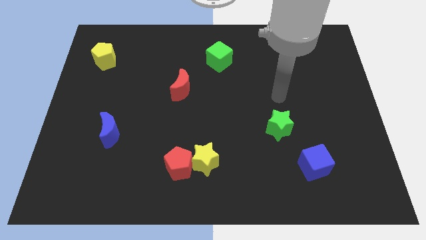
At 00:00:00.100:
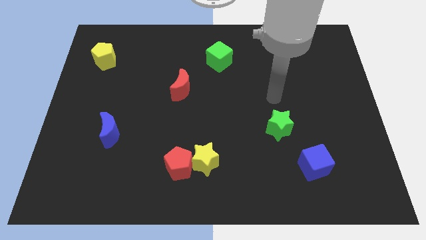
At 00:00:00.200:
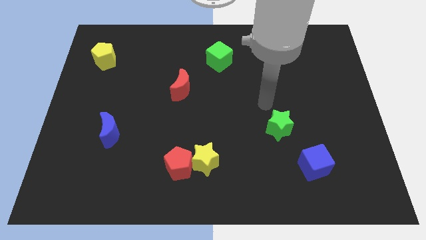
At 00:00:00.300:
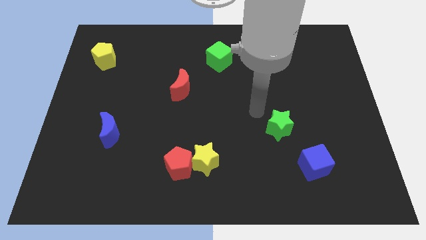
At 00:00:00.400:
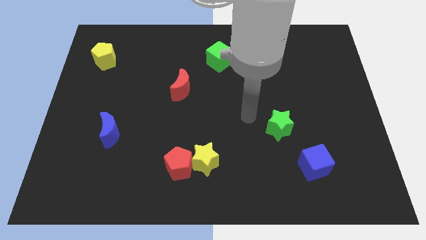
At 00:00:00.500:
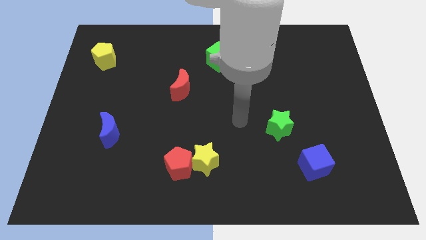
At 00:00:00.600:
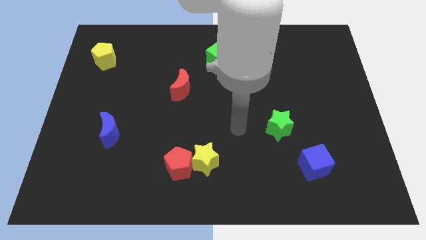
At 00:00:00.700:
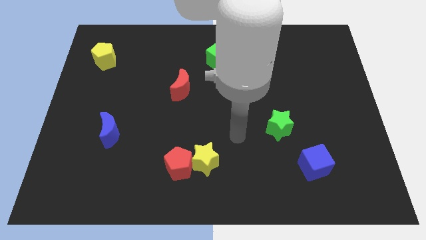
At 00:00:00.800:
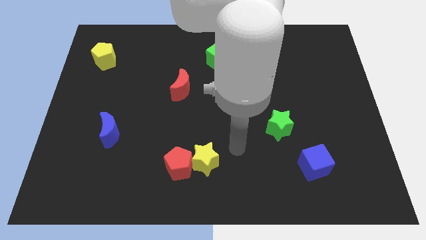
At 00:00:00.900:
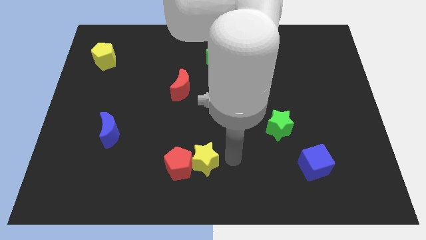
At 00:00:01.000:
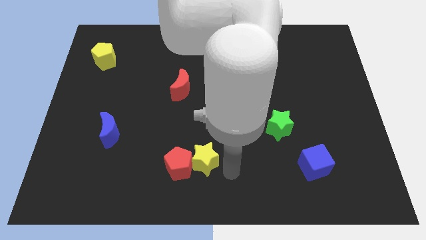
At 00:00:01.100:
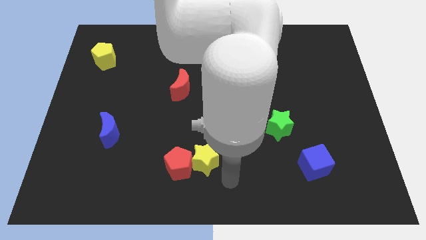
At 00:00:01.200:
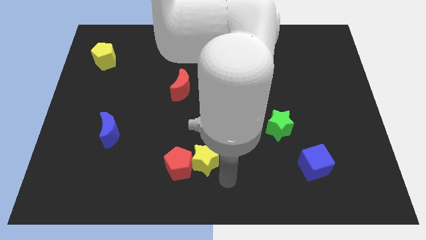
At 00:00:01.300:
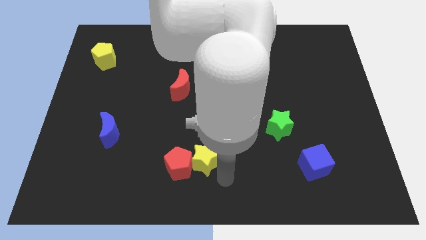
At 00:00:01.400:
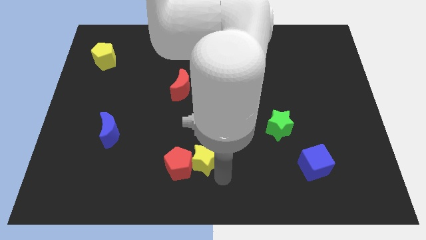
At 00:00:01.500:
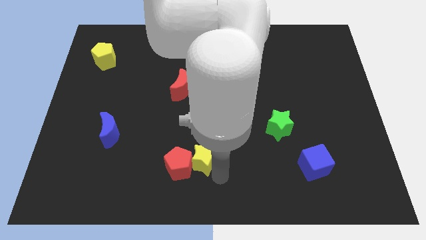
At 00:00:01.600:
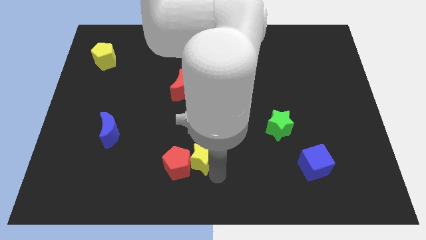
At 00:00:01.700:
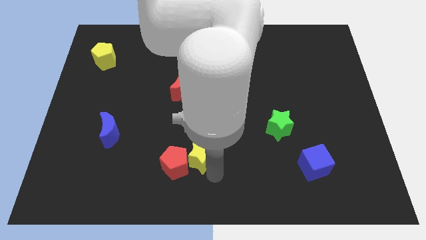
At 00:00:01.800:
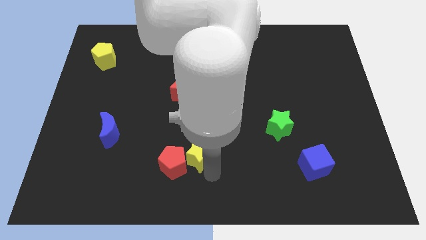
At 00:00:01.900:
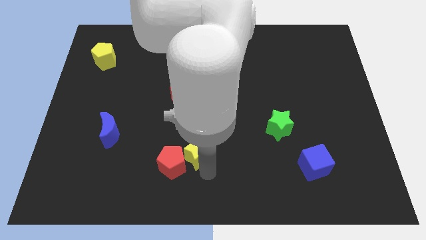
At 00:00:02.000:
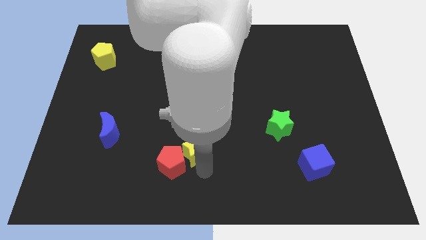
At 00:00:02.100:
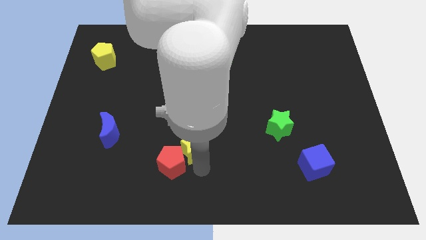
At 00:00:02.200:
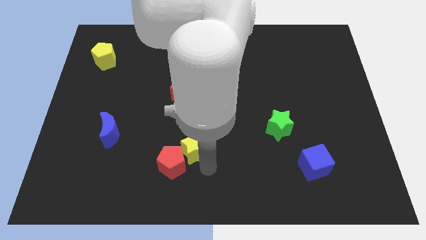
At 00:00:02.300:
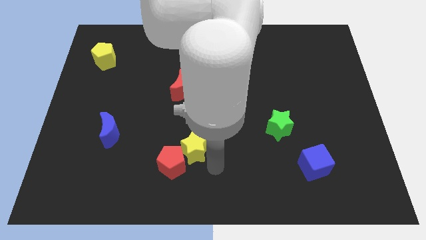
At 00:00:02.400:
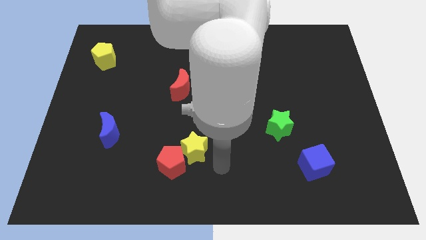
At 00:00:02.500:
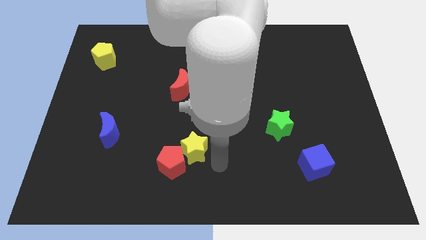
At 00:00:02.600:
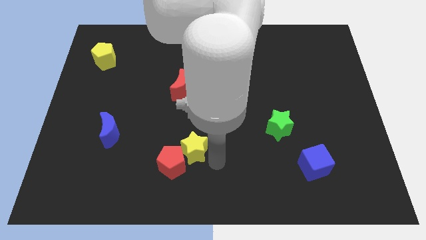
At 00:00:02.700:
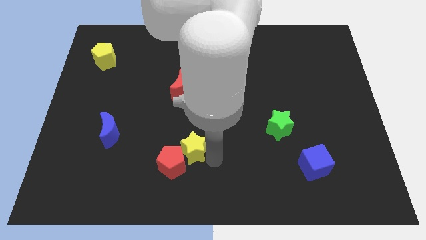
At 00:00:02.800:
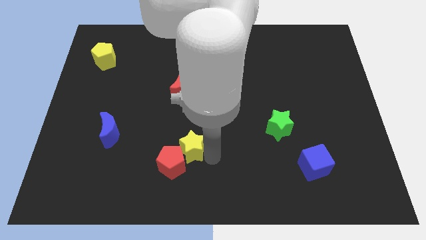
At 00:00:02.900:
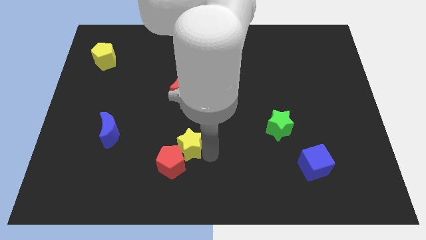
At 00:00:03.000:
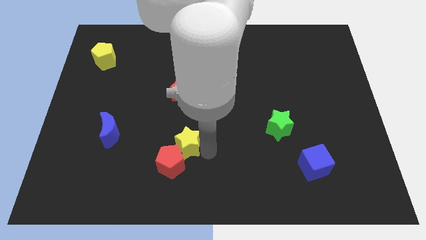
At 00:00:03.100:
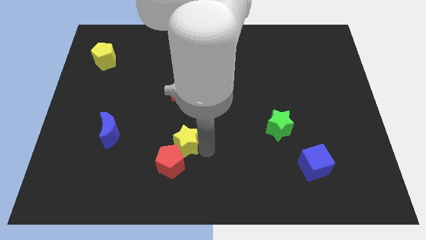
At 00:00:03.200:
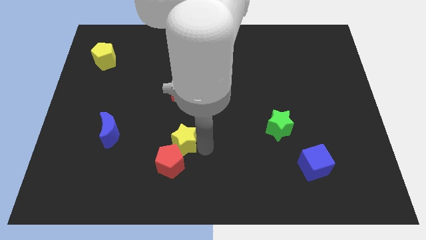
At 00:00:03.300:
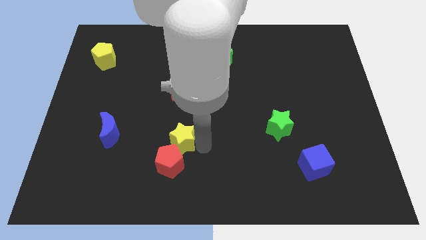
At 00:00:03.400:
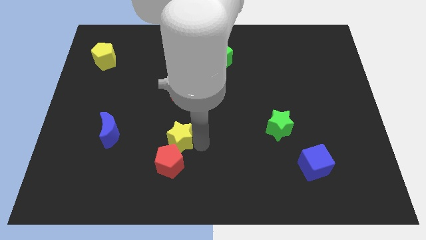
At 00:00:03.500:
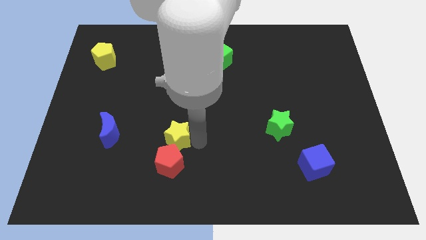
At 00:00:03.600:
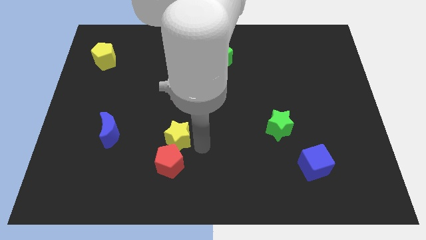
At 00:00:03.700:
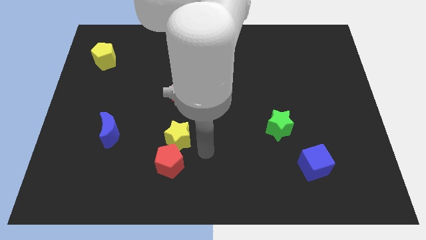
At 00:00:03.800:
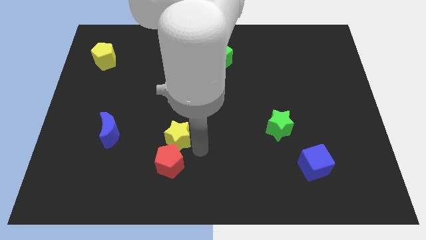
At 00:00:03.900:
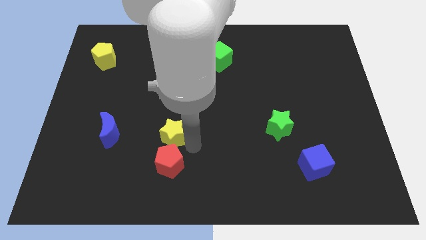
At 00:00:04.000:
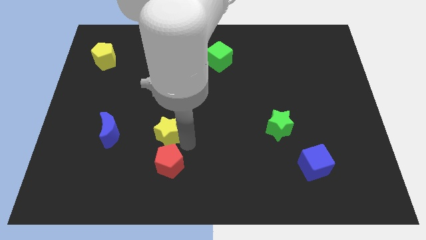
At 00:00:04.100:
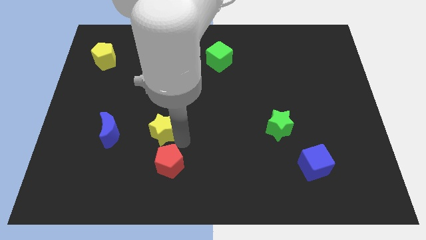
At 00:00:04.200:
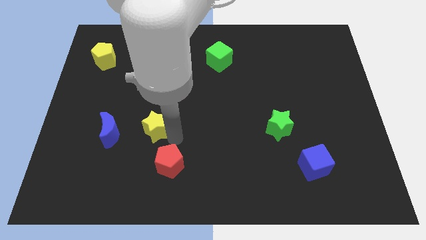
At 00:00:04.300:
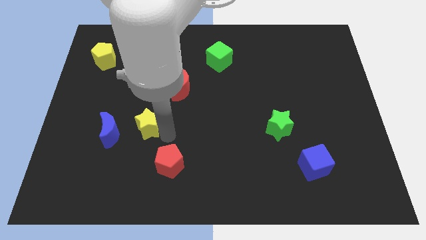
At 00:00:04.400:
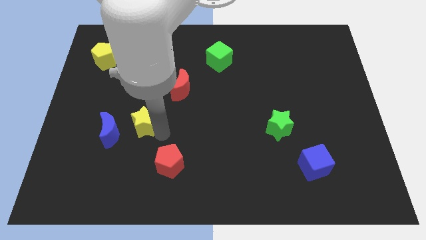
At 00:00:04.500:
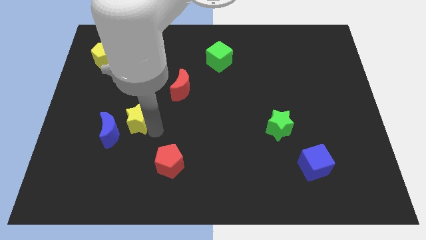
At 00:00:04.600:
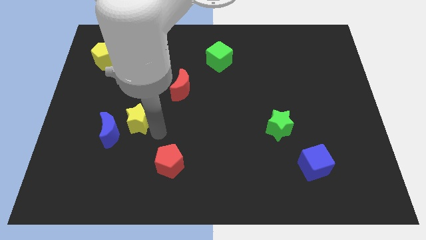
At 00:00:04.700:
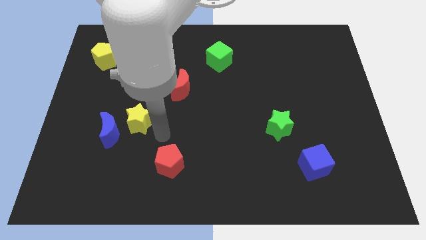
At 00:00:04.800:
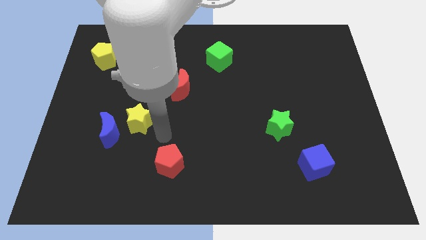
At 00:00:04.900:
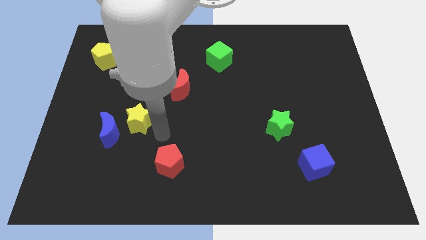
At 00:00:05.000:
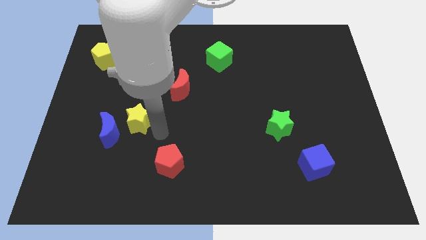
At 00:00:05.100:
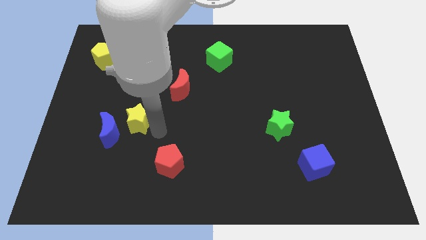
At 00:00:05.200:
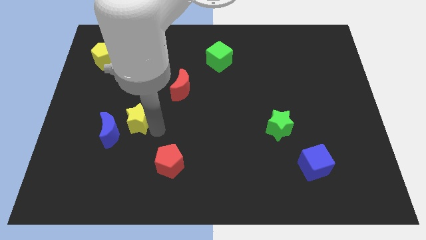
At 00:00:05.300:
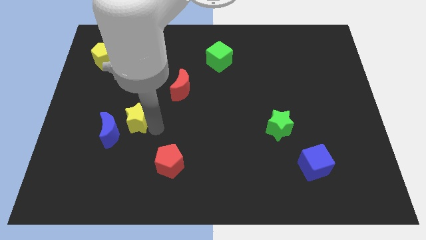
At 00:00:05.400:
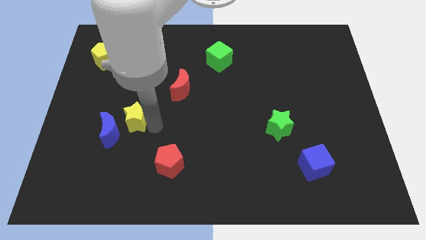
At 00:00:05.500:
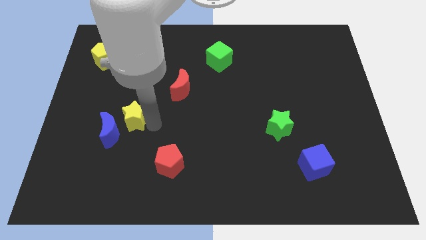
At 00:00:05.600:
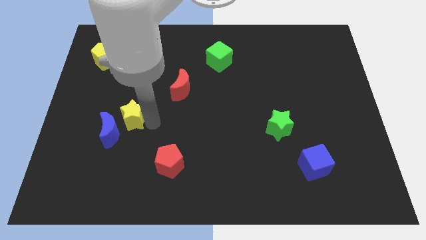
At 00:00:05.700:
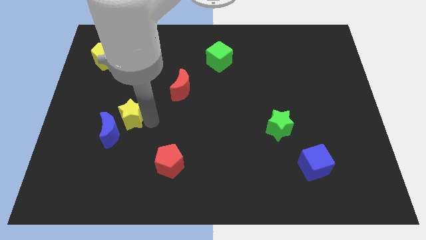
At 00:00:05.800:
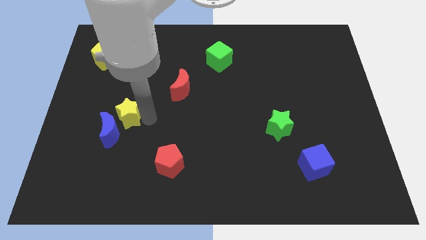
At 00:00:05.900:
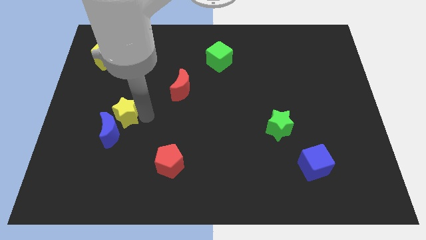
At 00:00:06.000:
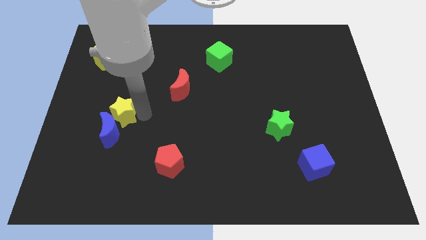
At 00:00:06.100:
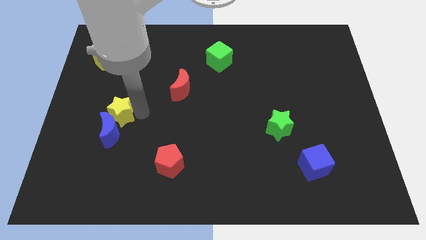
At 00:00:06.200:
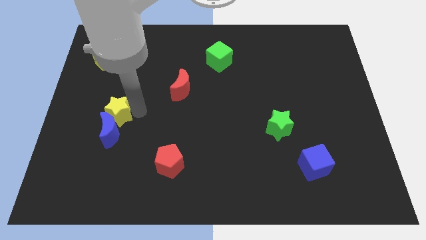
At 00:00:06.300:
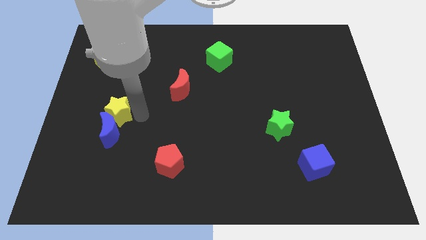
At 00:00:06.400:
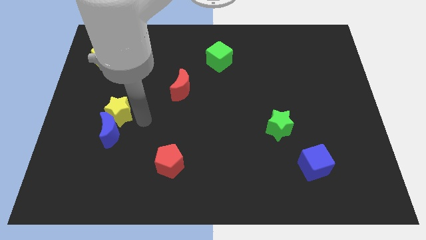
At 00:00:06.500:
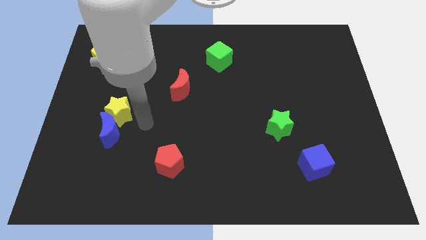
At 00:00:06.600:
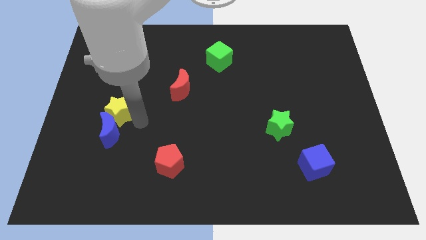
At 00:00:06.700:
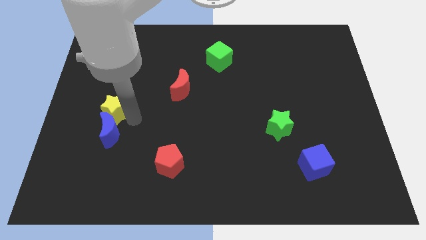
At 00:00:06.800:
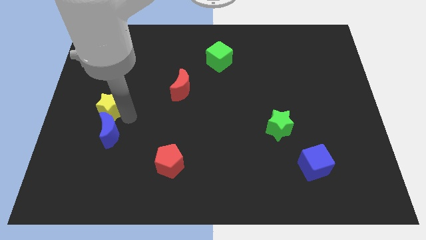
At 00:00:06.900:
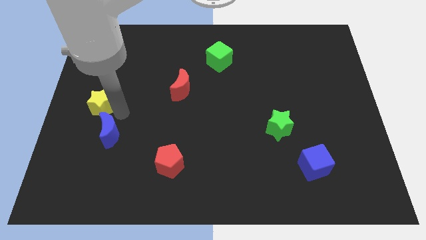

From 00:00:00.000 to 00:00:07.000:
slide the yellow star to the left side

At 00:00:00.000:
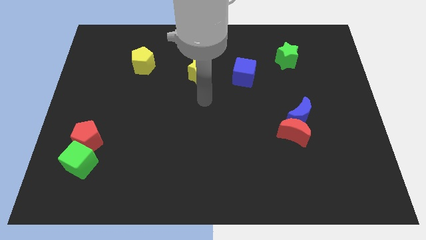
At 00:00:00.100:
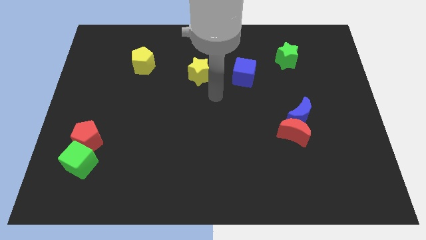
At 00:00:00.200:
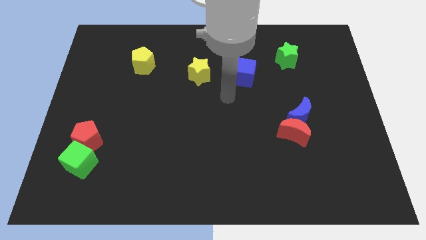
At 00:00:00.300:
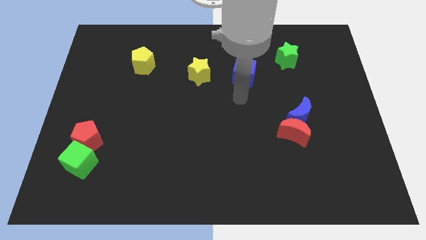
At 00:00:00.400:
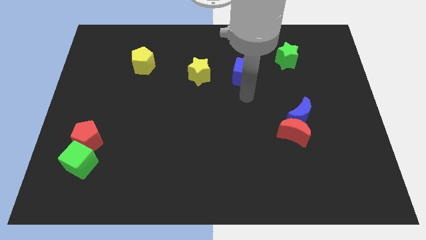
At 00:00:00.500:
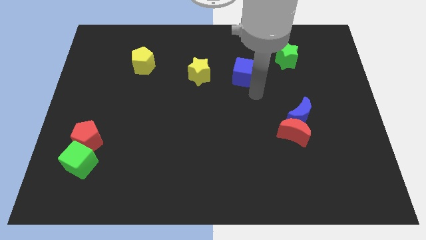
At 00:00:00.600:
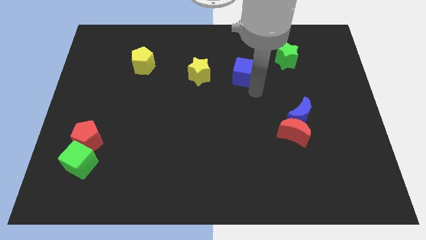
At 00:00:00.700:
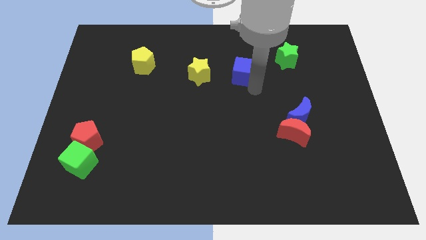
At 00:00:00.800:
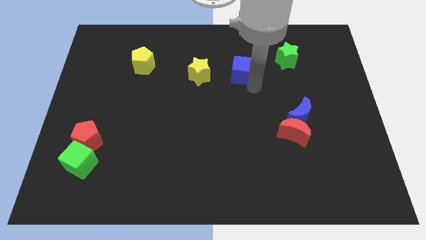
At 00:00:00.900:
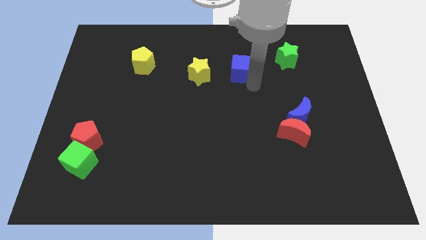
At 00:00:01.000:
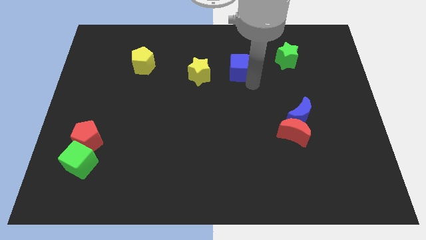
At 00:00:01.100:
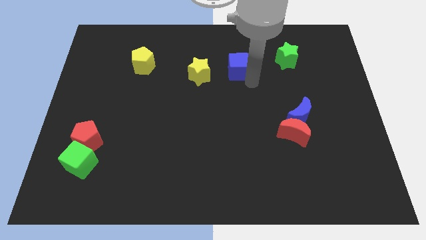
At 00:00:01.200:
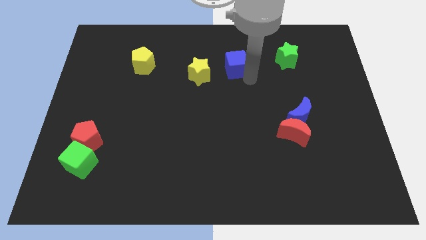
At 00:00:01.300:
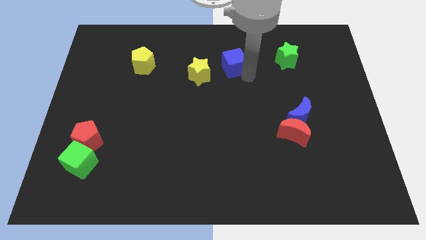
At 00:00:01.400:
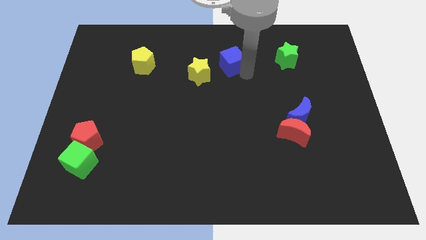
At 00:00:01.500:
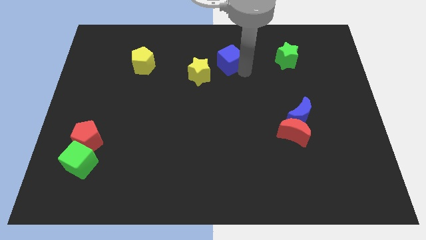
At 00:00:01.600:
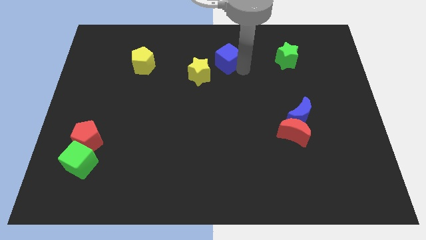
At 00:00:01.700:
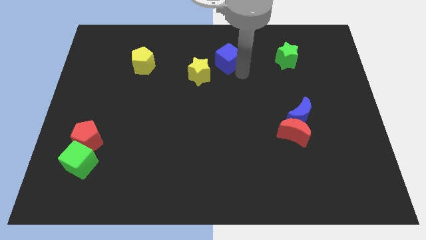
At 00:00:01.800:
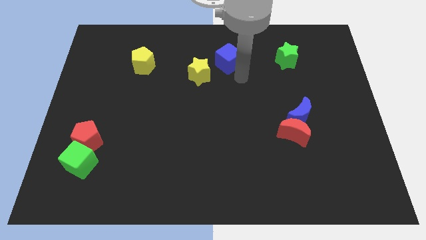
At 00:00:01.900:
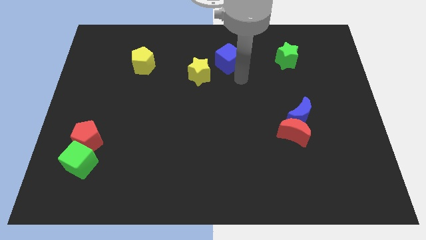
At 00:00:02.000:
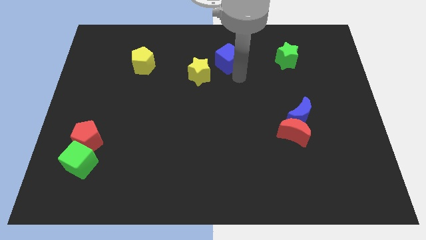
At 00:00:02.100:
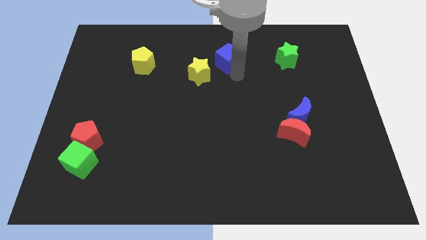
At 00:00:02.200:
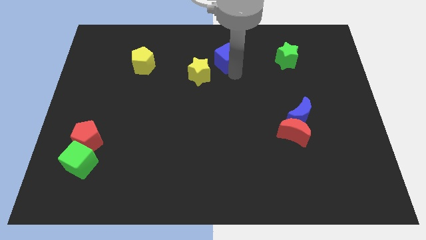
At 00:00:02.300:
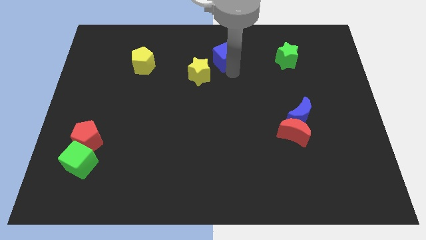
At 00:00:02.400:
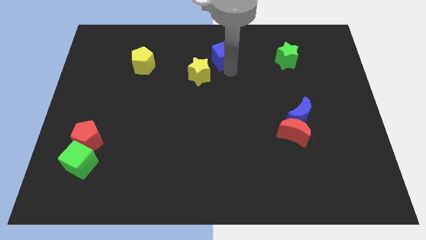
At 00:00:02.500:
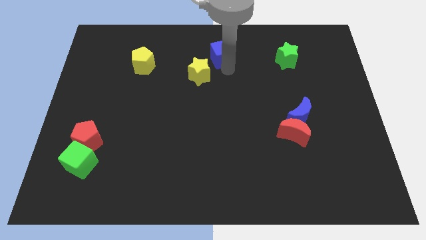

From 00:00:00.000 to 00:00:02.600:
push the blue cube to the top side
